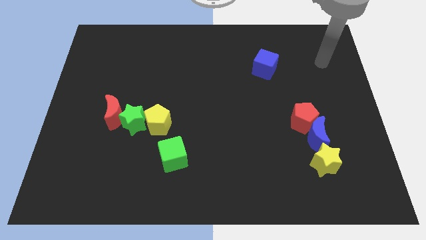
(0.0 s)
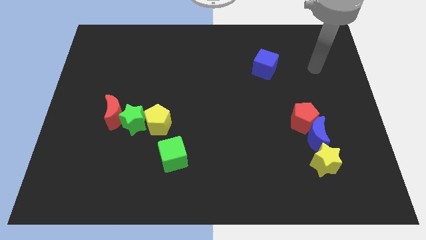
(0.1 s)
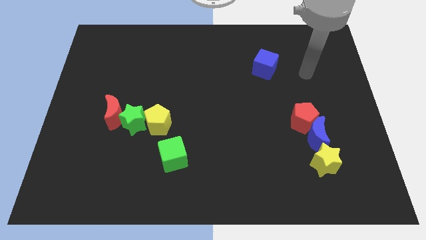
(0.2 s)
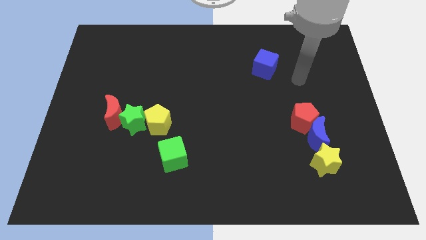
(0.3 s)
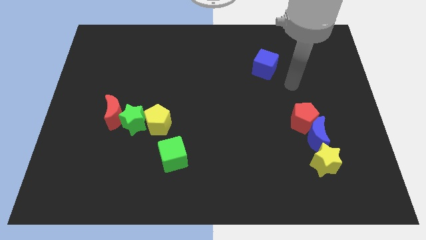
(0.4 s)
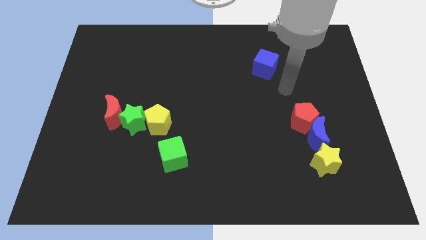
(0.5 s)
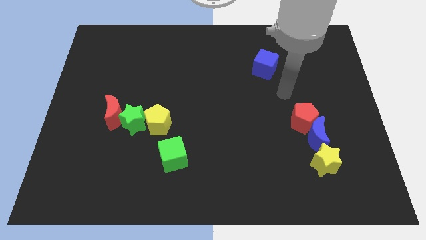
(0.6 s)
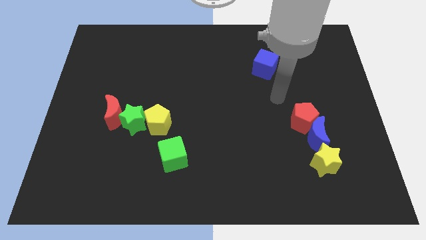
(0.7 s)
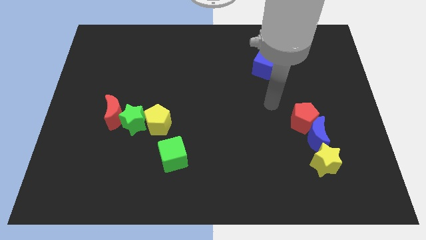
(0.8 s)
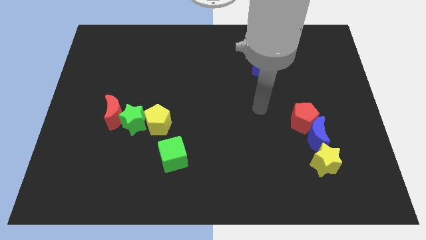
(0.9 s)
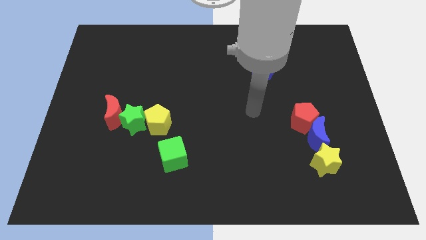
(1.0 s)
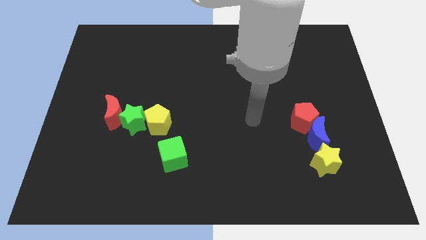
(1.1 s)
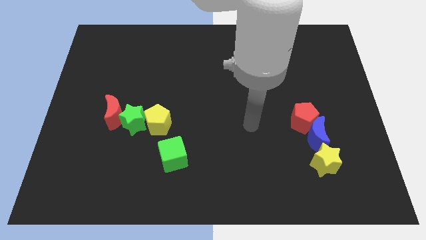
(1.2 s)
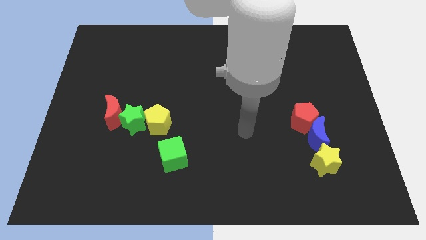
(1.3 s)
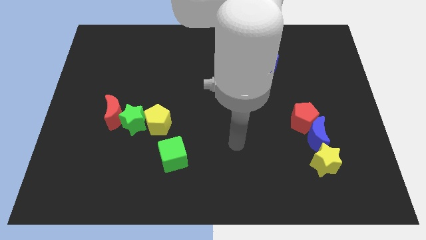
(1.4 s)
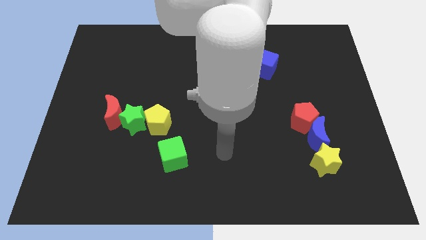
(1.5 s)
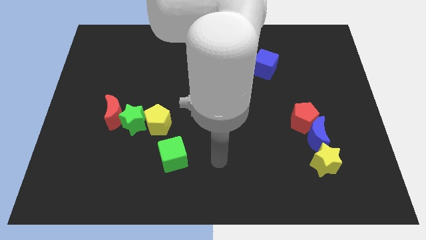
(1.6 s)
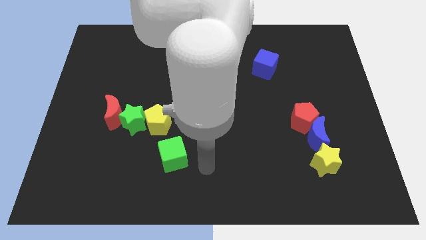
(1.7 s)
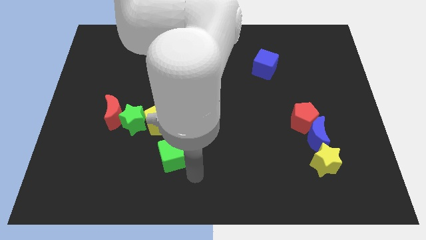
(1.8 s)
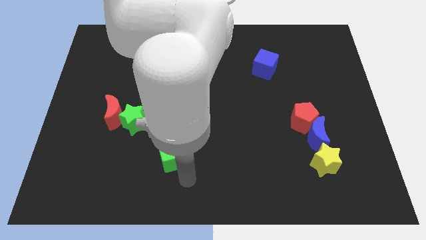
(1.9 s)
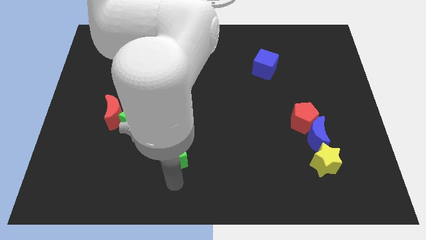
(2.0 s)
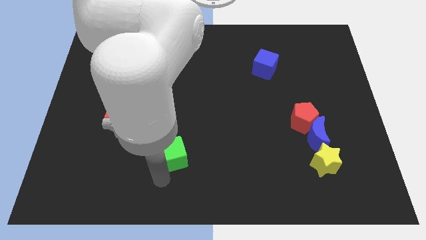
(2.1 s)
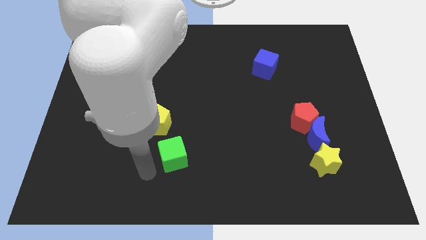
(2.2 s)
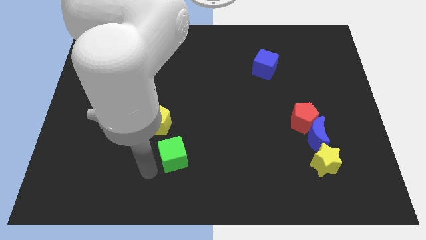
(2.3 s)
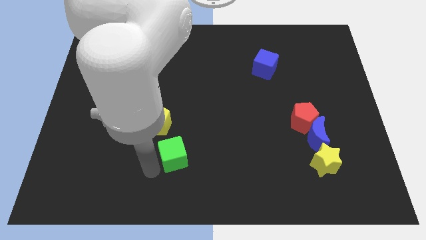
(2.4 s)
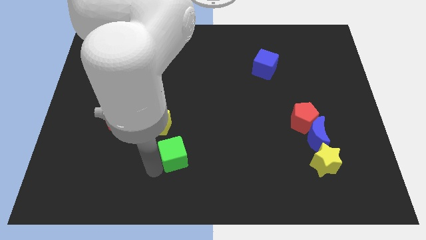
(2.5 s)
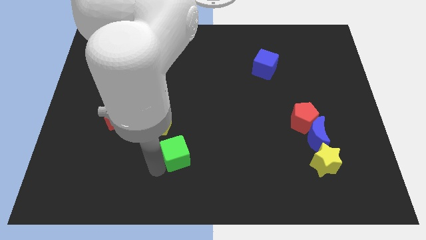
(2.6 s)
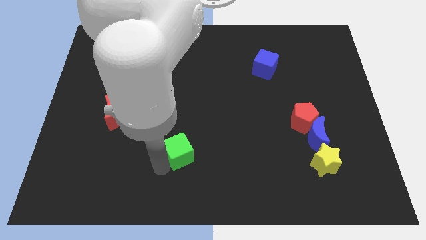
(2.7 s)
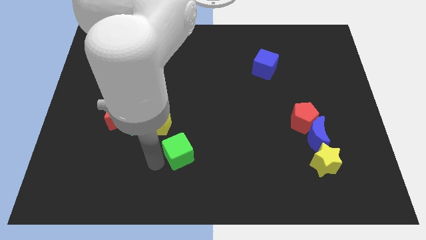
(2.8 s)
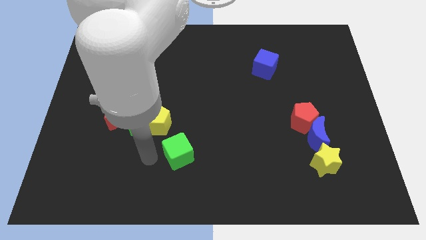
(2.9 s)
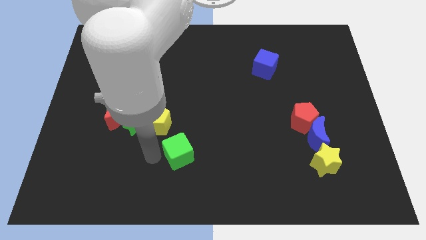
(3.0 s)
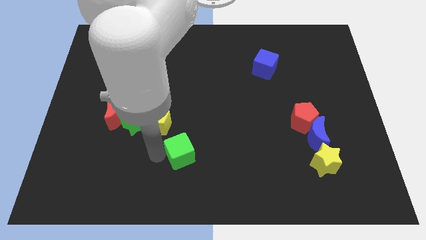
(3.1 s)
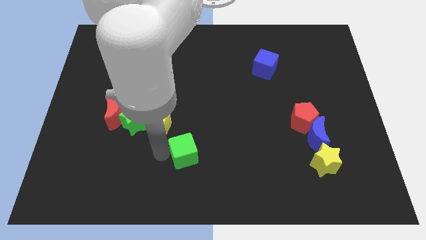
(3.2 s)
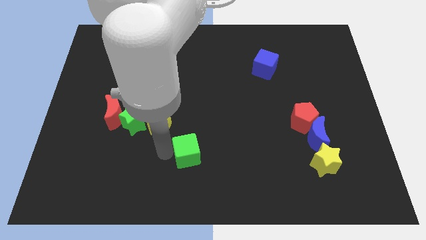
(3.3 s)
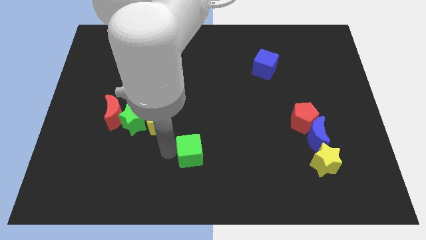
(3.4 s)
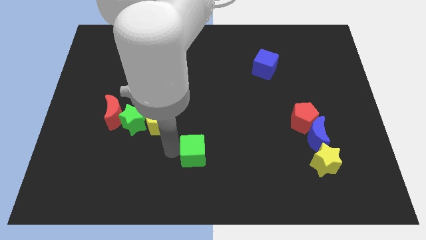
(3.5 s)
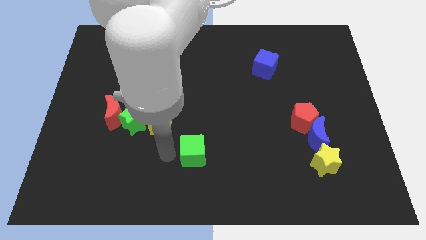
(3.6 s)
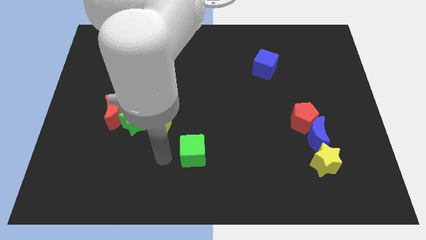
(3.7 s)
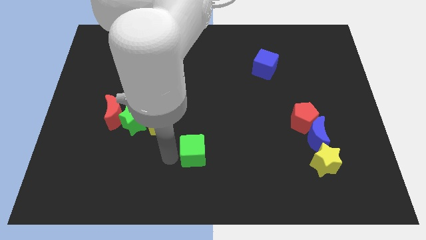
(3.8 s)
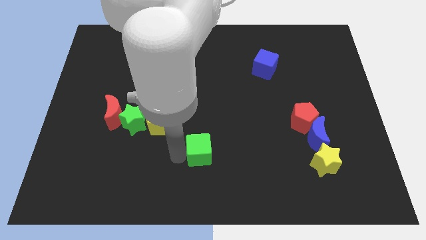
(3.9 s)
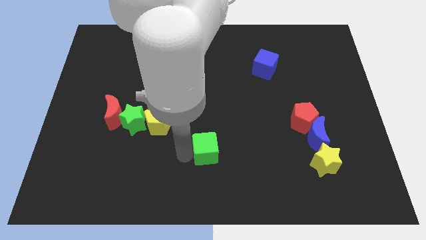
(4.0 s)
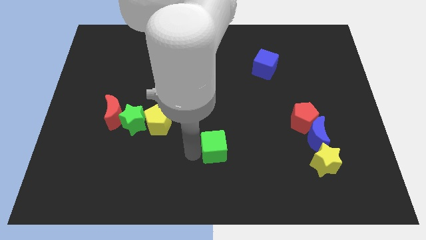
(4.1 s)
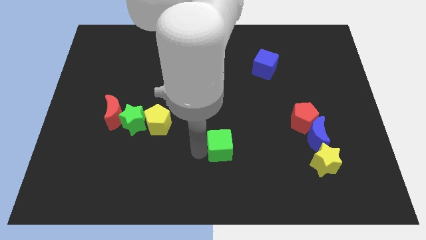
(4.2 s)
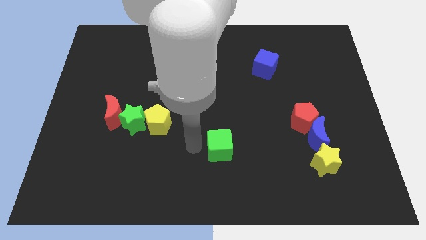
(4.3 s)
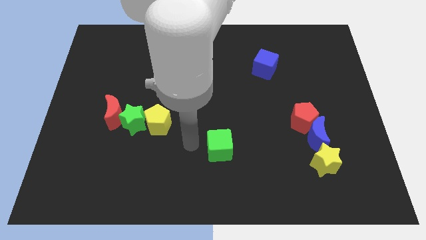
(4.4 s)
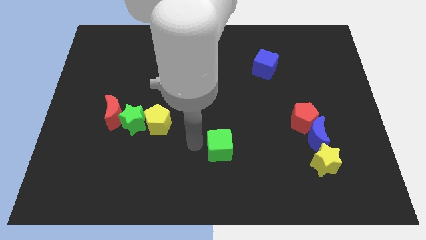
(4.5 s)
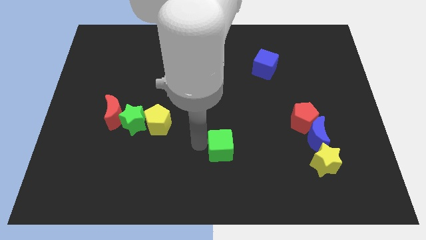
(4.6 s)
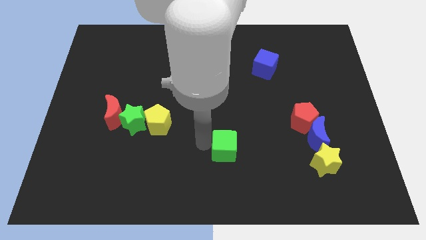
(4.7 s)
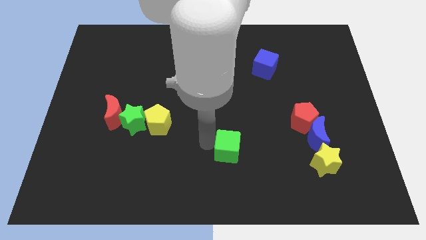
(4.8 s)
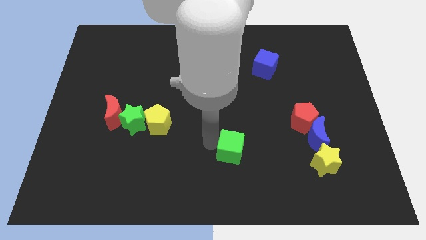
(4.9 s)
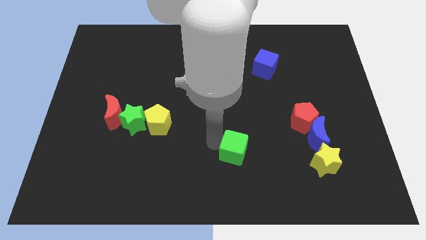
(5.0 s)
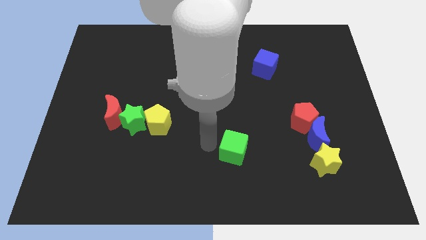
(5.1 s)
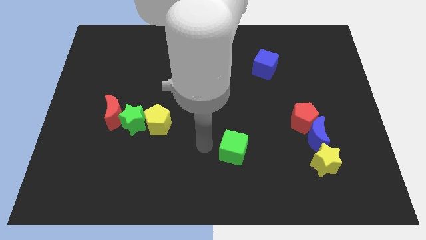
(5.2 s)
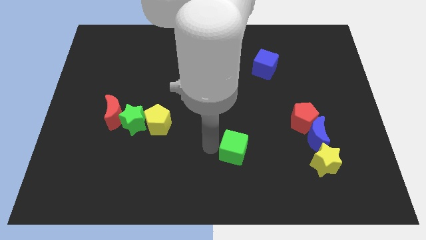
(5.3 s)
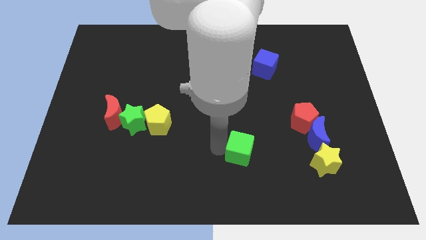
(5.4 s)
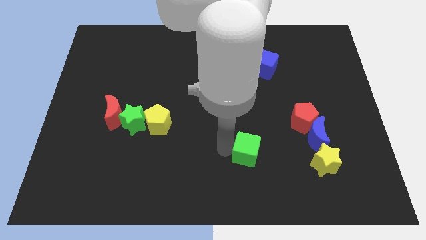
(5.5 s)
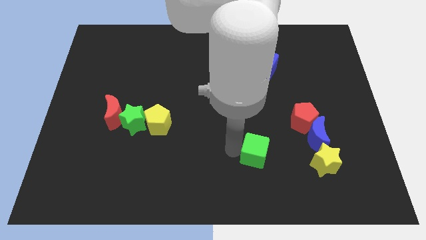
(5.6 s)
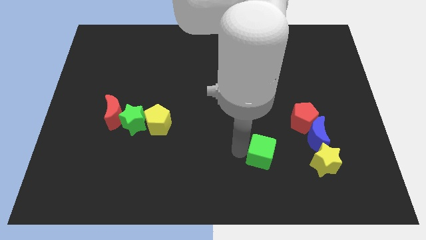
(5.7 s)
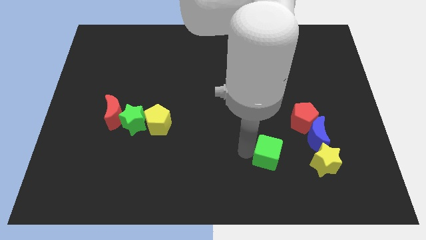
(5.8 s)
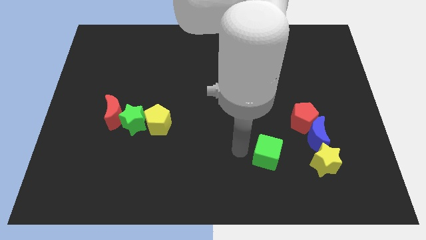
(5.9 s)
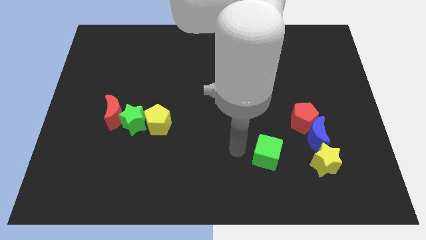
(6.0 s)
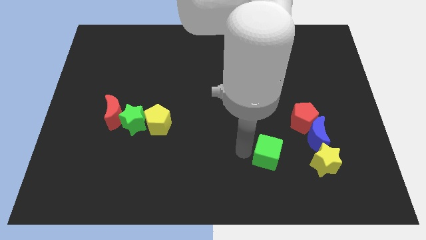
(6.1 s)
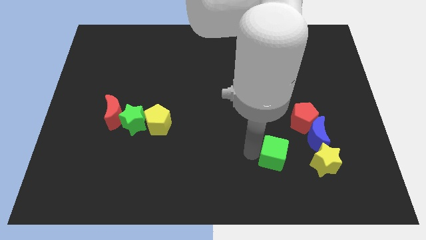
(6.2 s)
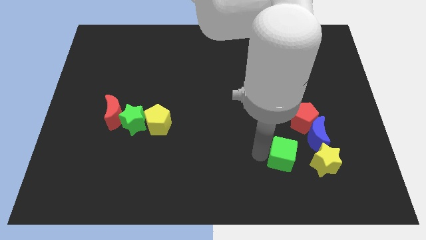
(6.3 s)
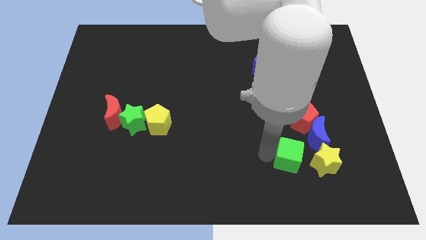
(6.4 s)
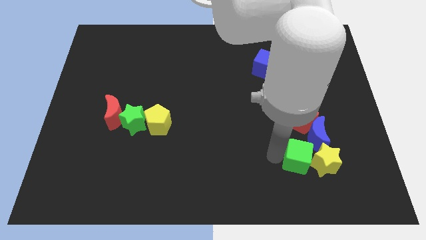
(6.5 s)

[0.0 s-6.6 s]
put the green cube next to the yellow star

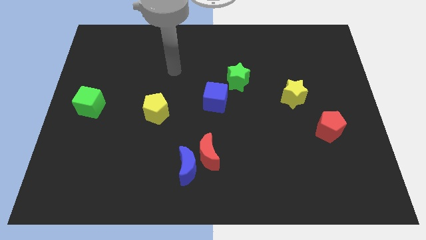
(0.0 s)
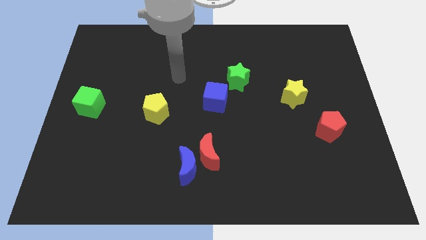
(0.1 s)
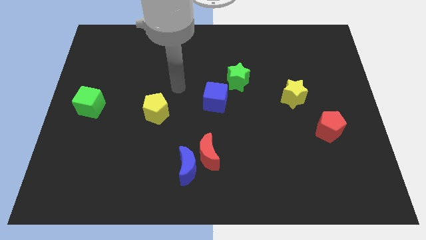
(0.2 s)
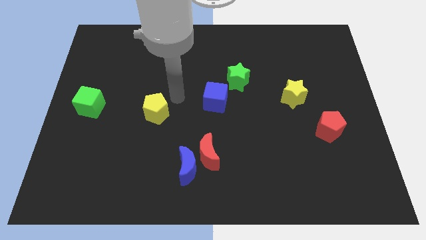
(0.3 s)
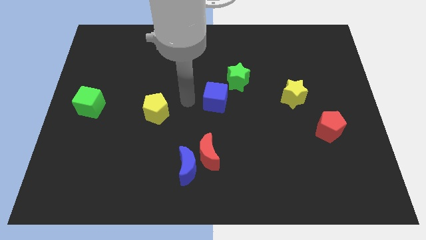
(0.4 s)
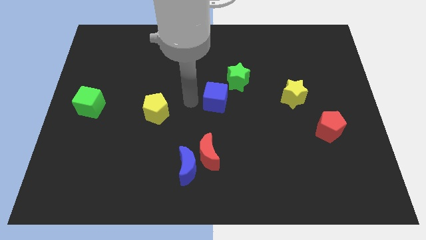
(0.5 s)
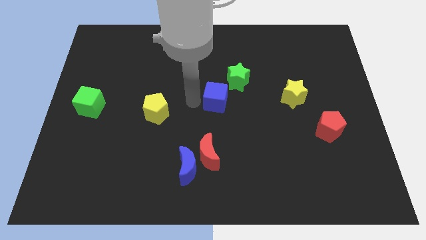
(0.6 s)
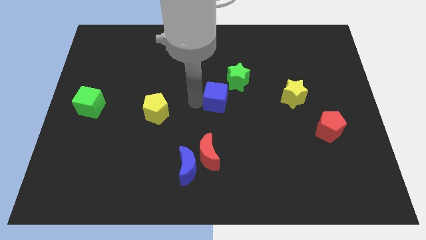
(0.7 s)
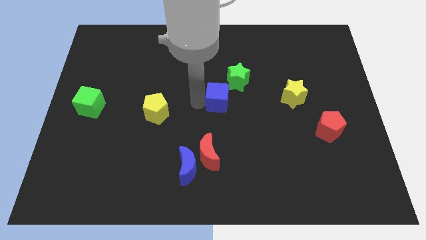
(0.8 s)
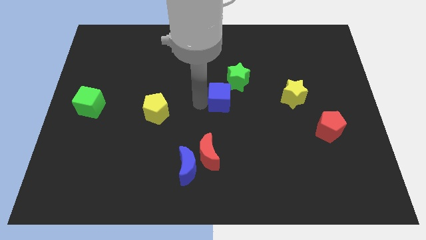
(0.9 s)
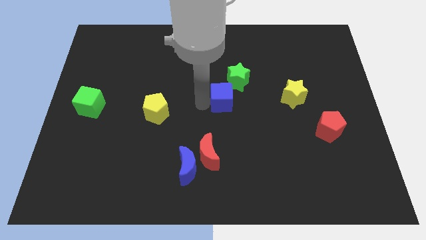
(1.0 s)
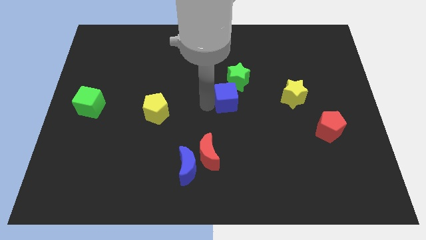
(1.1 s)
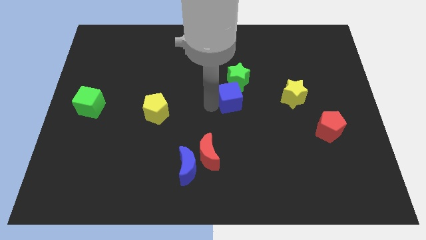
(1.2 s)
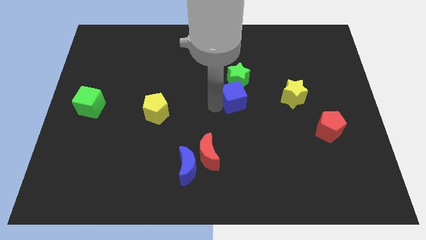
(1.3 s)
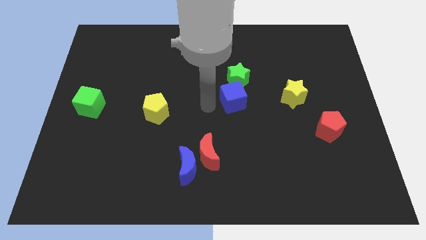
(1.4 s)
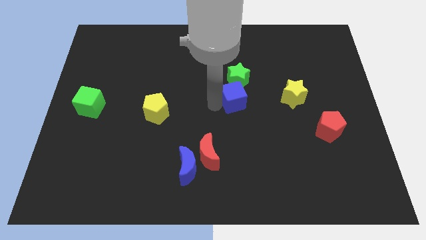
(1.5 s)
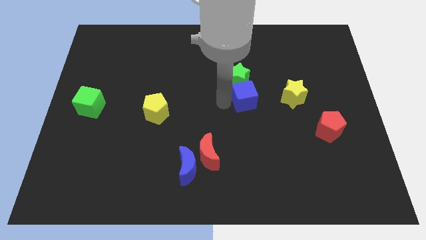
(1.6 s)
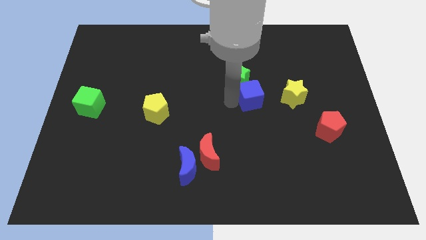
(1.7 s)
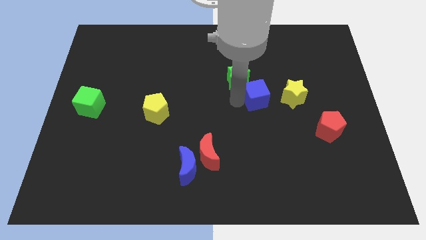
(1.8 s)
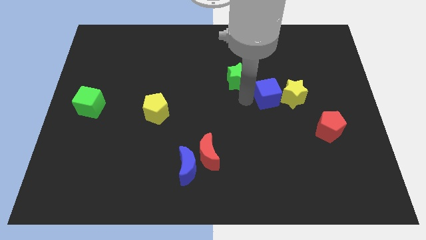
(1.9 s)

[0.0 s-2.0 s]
move the blue cube towards the yellow star
